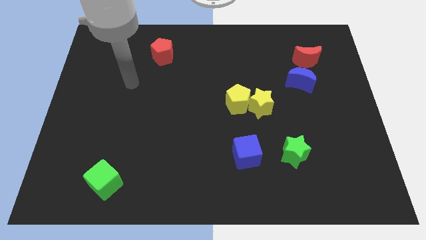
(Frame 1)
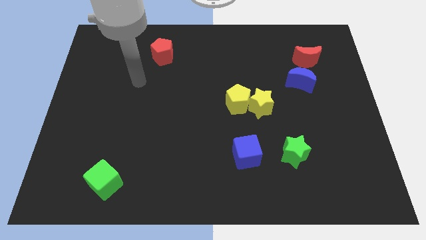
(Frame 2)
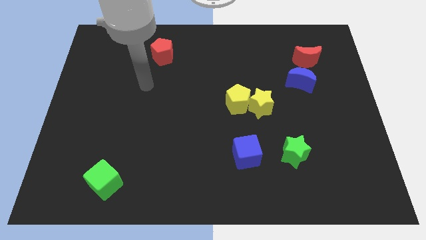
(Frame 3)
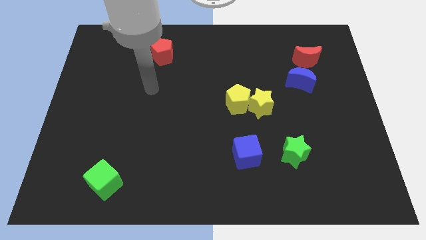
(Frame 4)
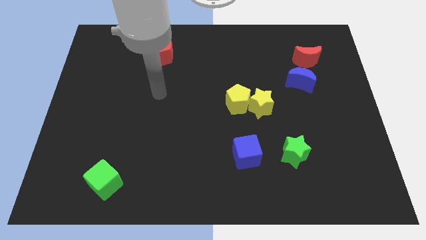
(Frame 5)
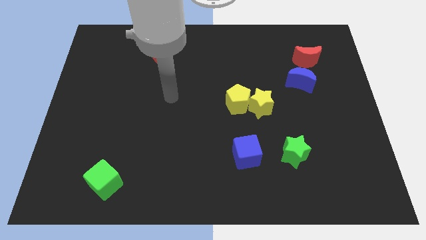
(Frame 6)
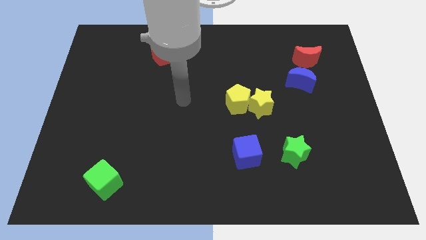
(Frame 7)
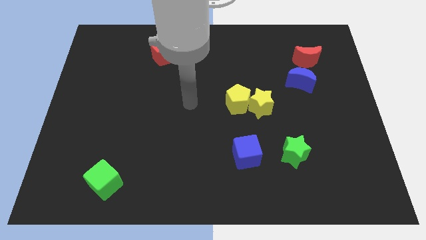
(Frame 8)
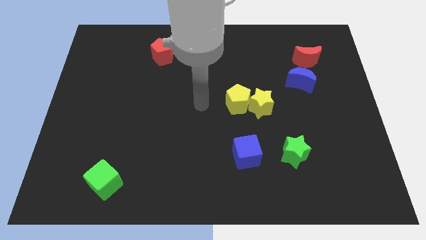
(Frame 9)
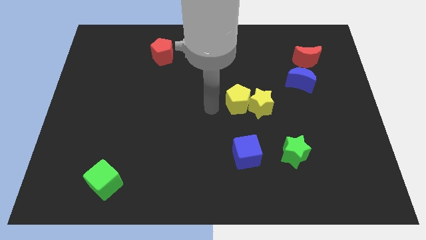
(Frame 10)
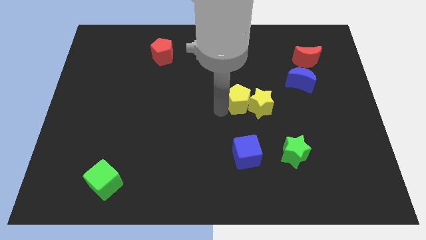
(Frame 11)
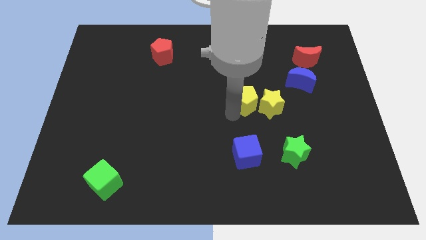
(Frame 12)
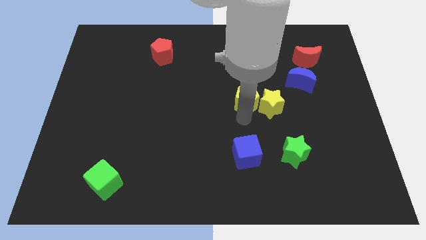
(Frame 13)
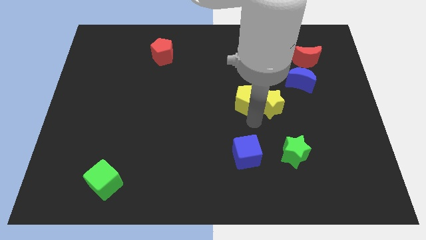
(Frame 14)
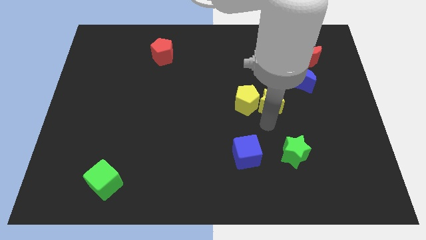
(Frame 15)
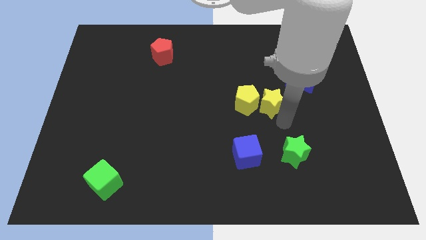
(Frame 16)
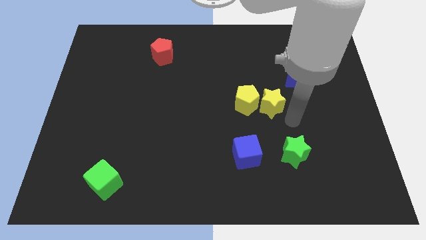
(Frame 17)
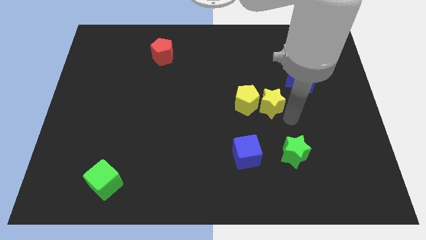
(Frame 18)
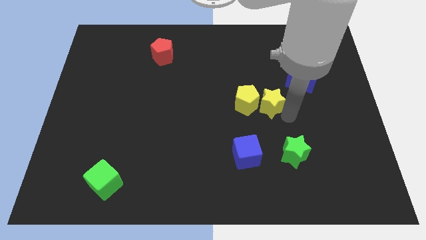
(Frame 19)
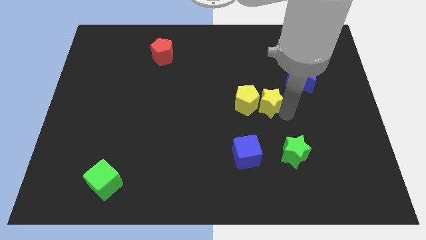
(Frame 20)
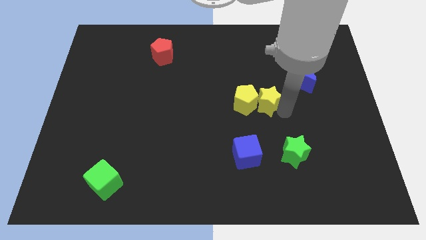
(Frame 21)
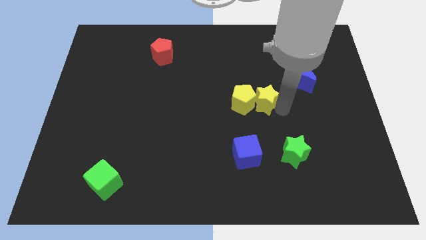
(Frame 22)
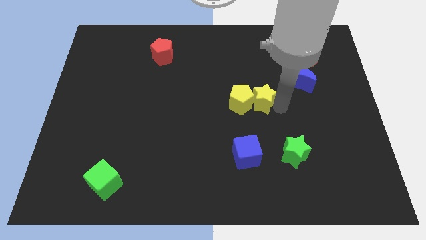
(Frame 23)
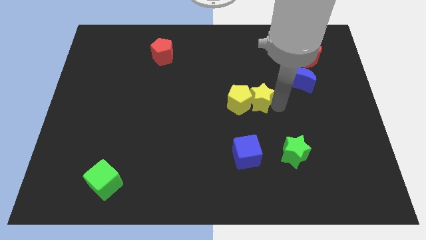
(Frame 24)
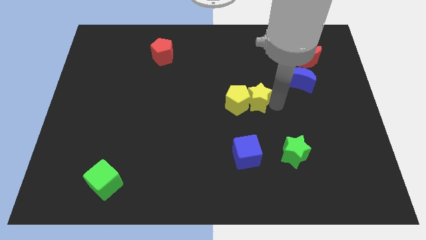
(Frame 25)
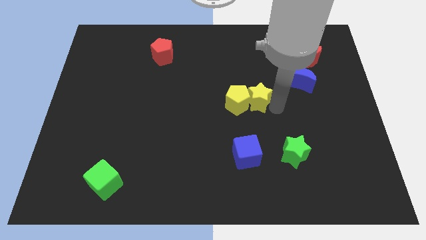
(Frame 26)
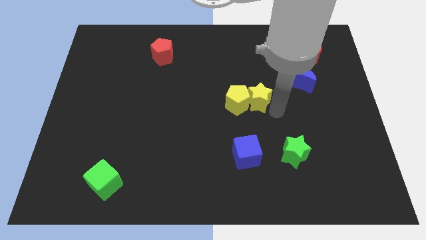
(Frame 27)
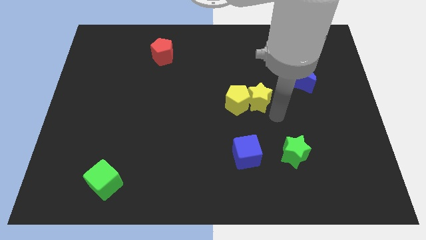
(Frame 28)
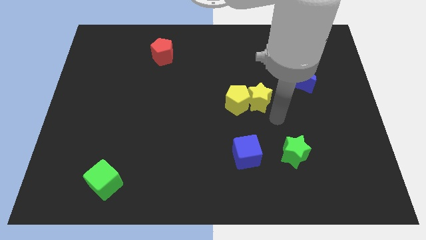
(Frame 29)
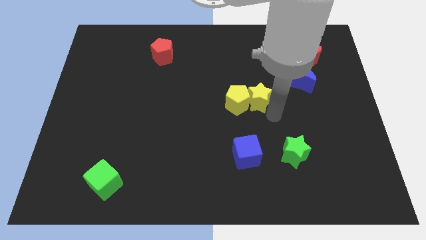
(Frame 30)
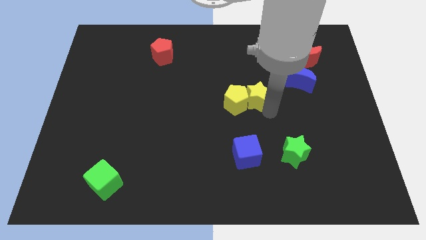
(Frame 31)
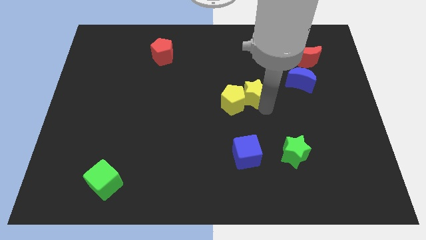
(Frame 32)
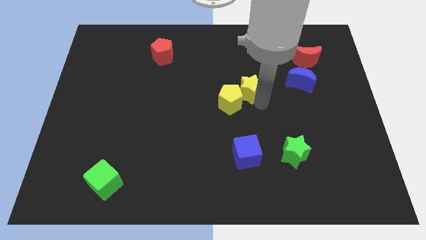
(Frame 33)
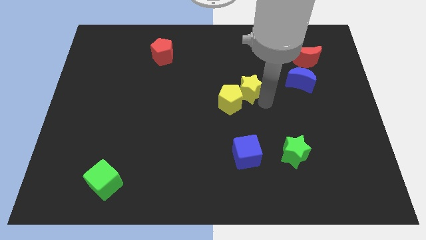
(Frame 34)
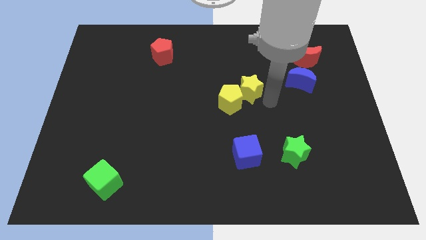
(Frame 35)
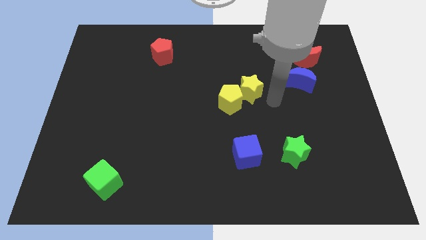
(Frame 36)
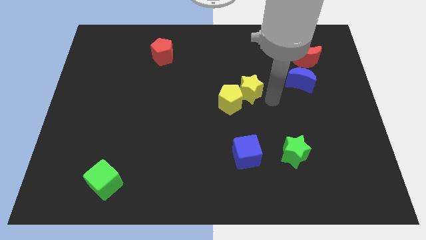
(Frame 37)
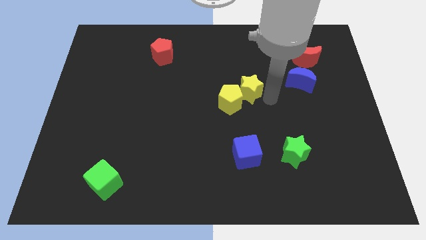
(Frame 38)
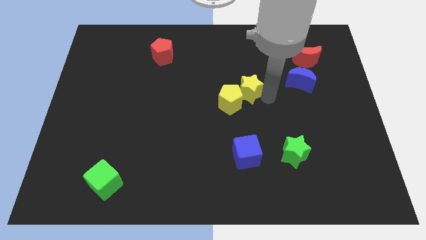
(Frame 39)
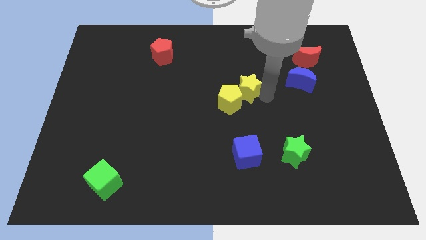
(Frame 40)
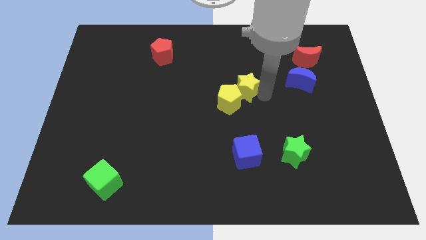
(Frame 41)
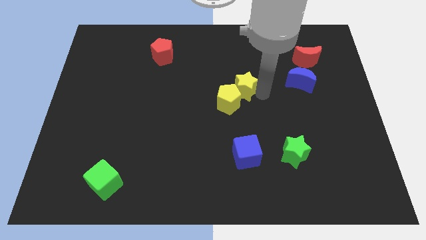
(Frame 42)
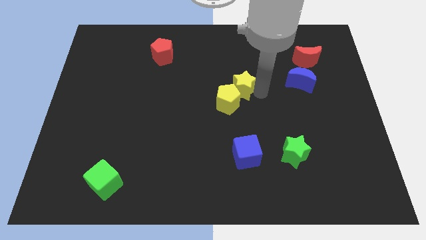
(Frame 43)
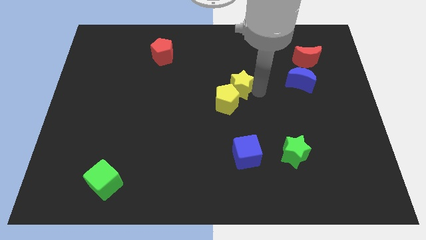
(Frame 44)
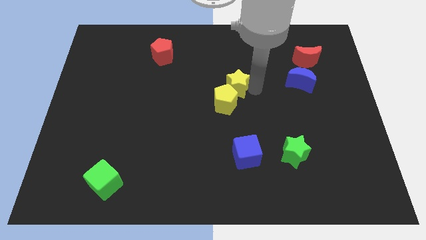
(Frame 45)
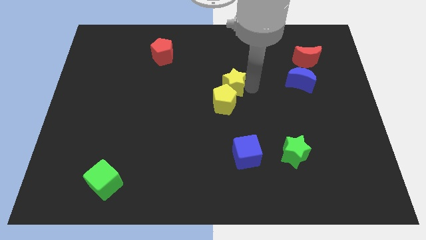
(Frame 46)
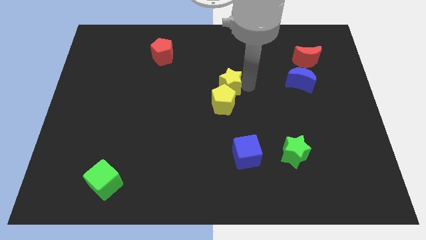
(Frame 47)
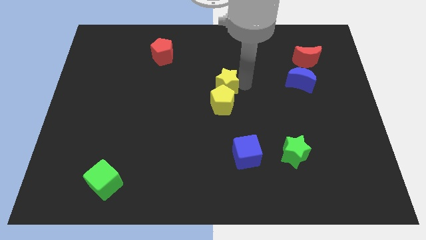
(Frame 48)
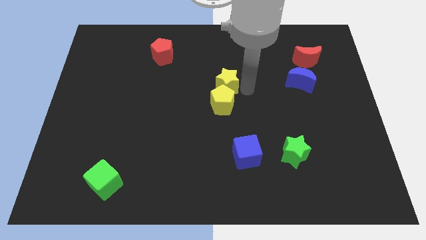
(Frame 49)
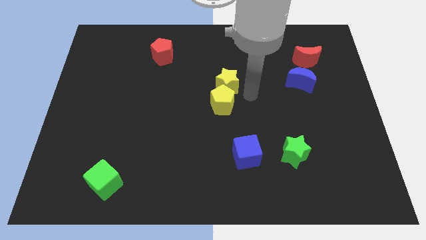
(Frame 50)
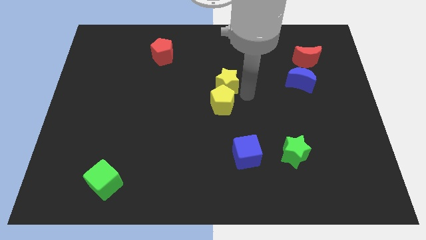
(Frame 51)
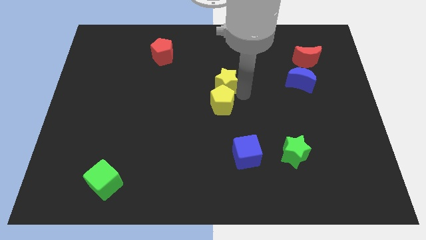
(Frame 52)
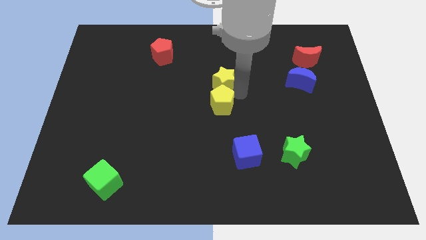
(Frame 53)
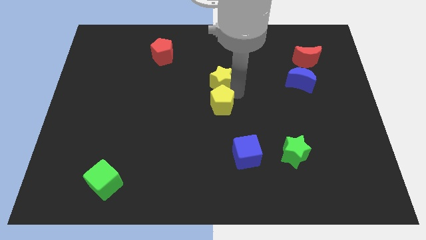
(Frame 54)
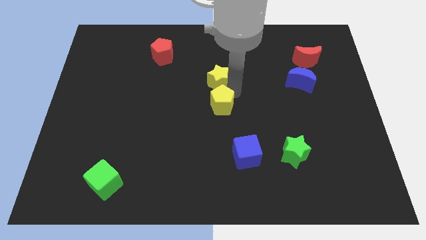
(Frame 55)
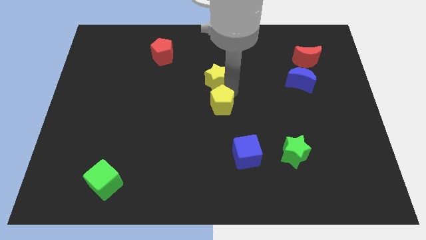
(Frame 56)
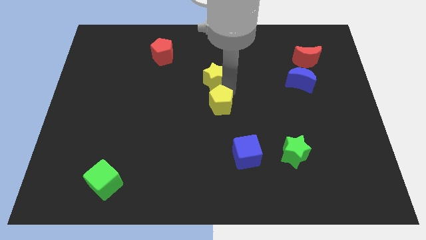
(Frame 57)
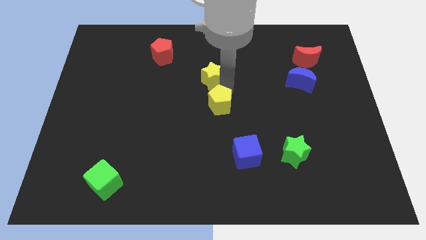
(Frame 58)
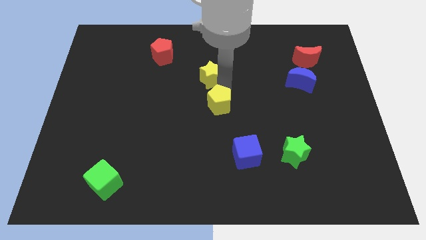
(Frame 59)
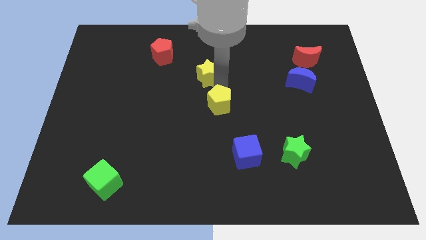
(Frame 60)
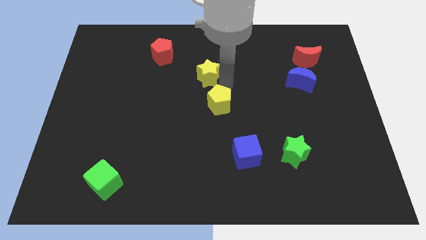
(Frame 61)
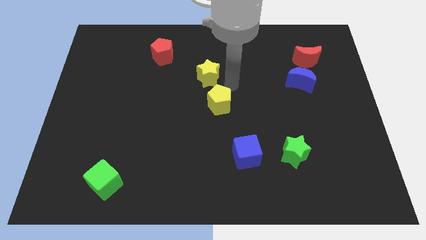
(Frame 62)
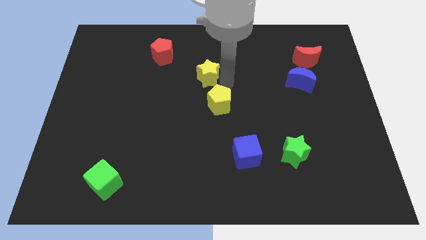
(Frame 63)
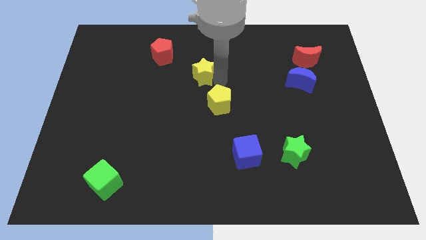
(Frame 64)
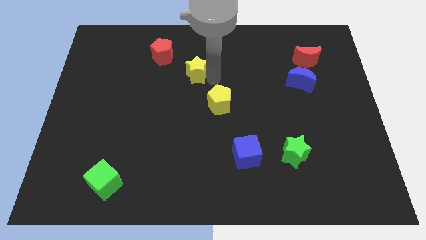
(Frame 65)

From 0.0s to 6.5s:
move the yellow star diagonally down and to the right of the red pentagon

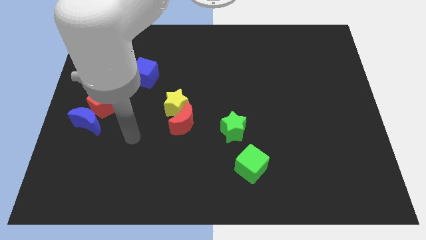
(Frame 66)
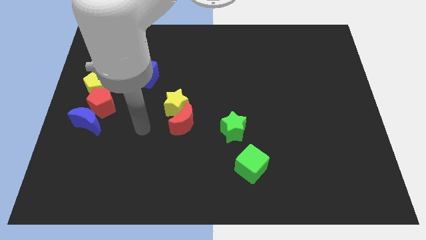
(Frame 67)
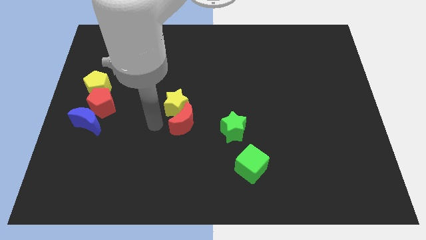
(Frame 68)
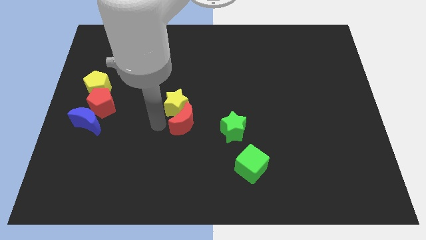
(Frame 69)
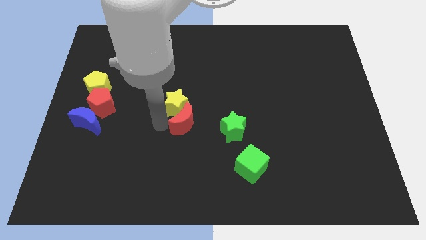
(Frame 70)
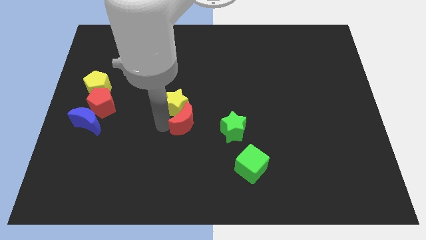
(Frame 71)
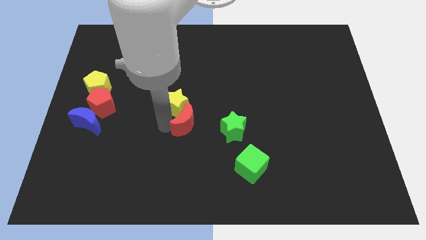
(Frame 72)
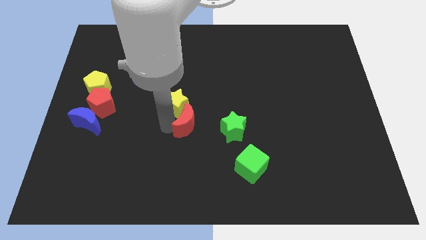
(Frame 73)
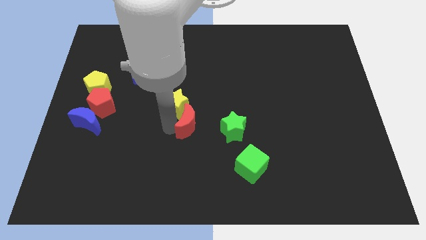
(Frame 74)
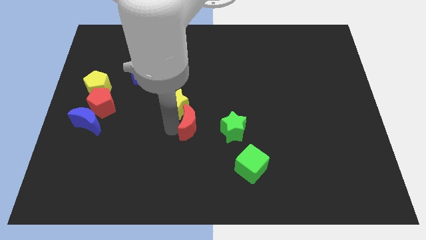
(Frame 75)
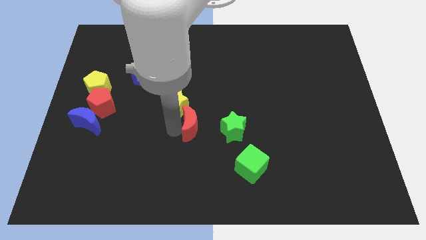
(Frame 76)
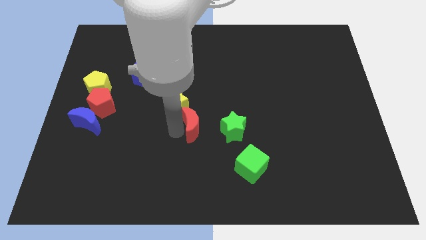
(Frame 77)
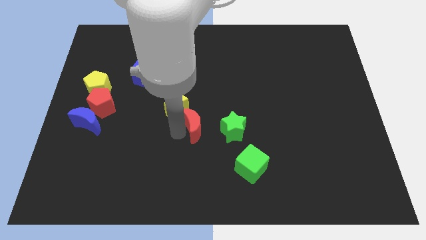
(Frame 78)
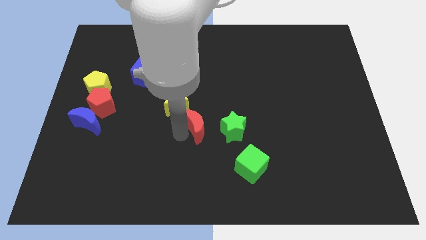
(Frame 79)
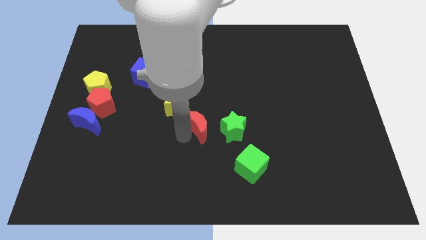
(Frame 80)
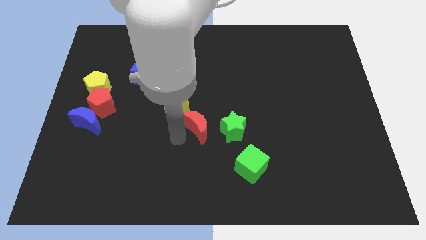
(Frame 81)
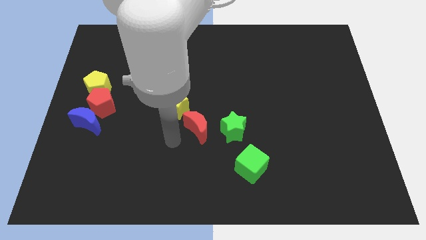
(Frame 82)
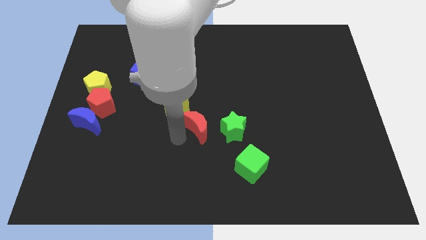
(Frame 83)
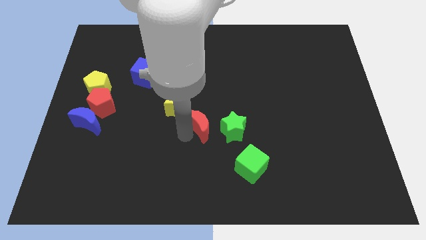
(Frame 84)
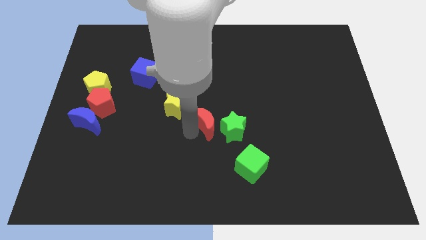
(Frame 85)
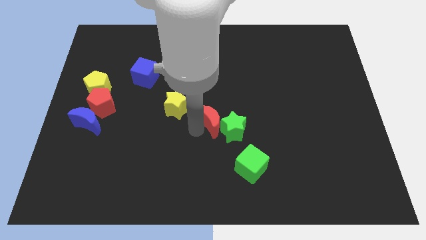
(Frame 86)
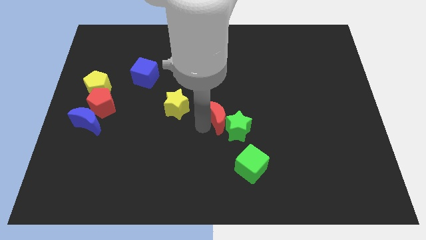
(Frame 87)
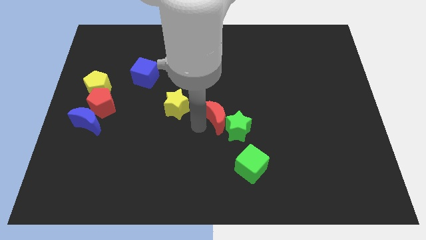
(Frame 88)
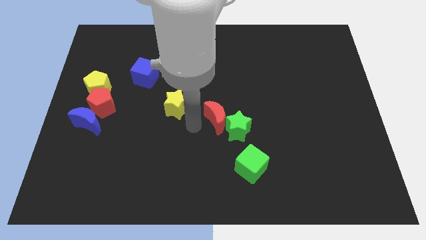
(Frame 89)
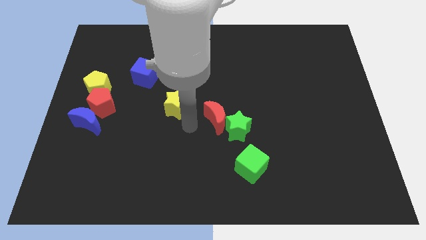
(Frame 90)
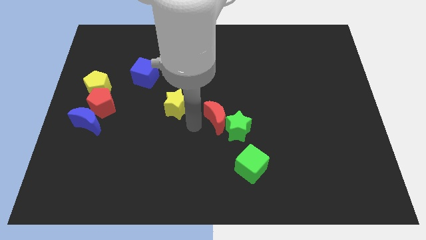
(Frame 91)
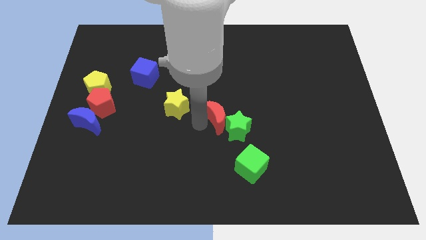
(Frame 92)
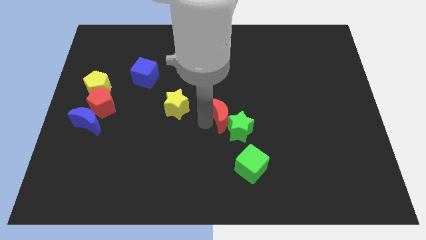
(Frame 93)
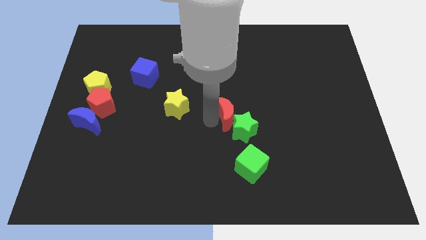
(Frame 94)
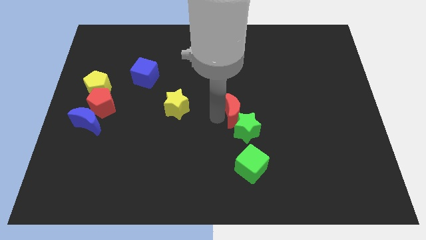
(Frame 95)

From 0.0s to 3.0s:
slide the red moon to the top side of the green cube
